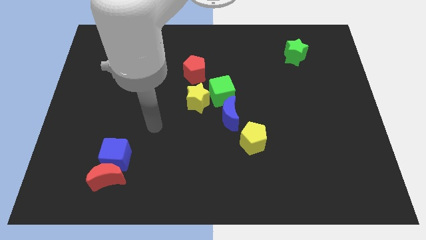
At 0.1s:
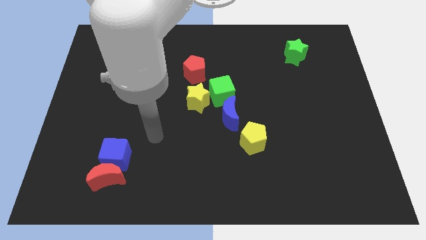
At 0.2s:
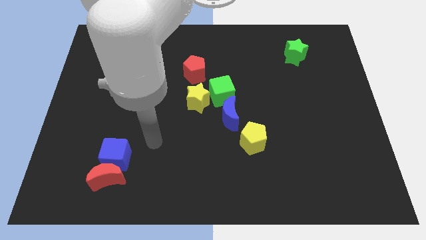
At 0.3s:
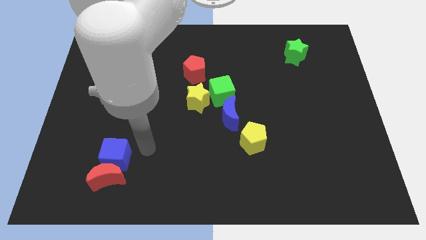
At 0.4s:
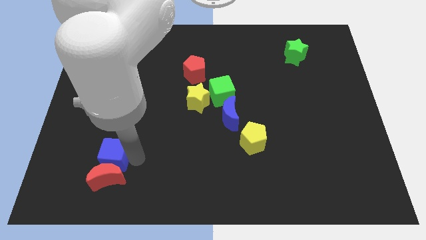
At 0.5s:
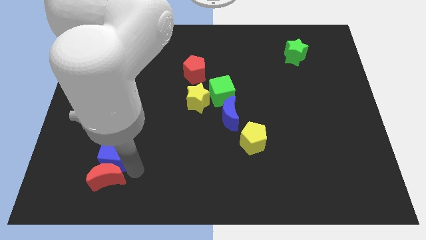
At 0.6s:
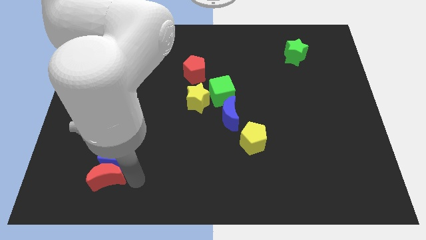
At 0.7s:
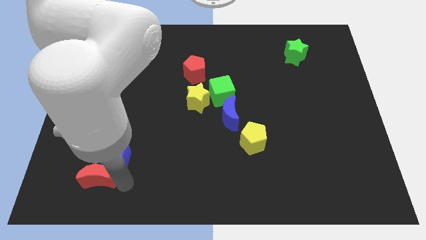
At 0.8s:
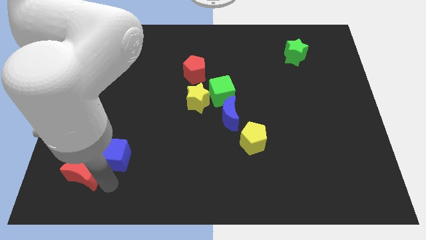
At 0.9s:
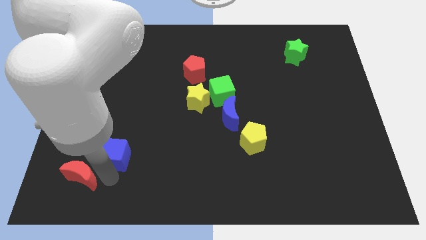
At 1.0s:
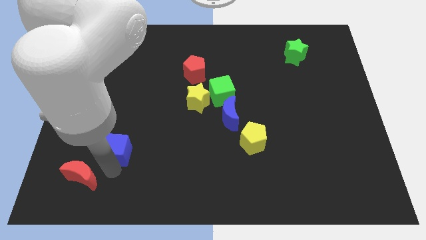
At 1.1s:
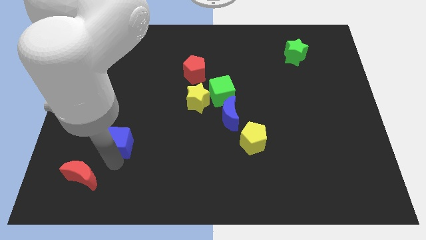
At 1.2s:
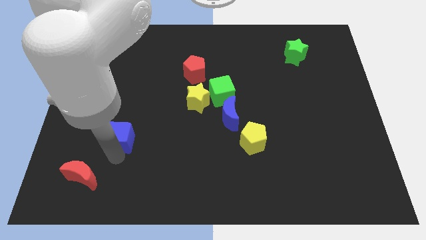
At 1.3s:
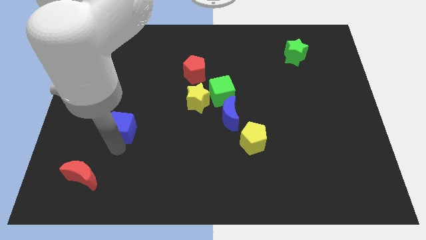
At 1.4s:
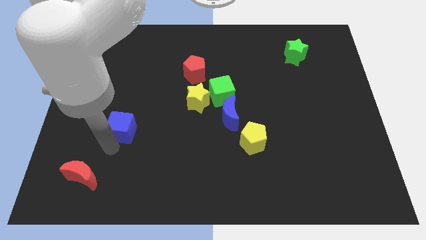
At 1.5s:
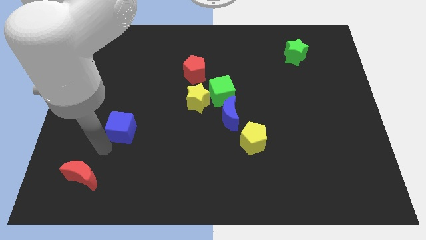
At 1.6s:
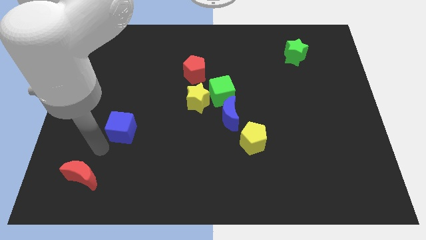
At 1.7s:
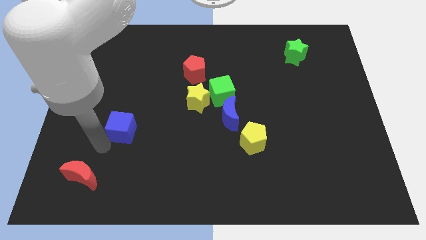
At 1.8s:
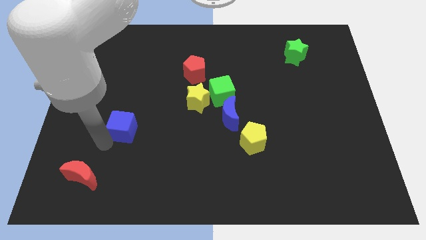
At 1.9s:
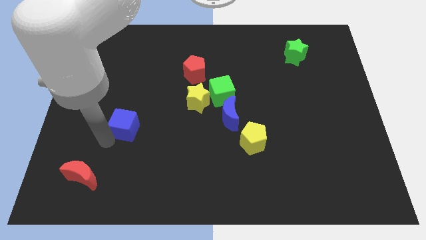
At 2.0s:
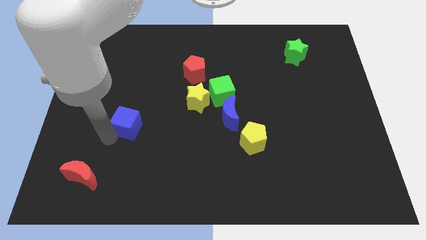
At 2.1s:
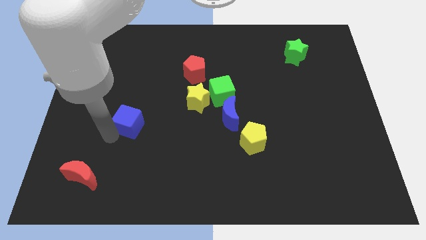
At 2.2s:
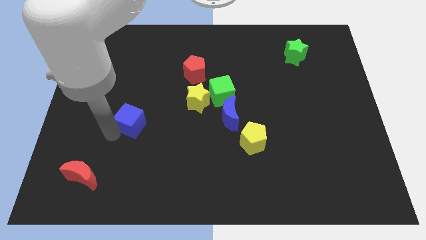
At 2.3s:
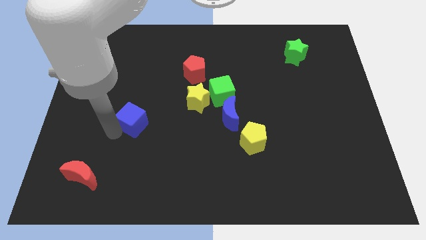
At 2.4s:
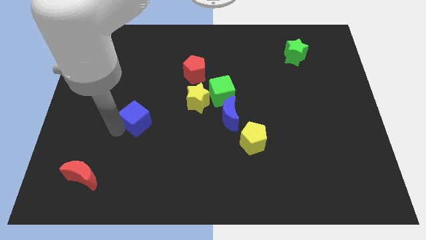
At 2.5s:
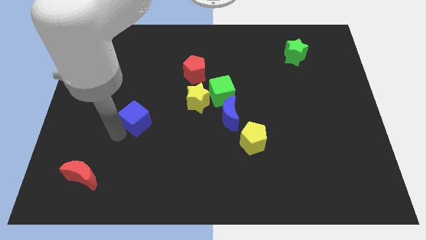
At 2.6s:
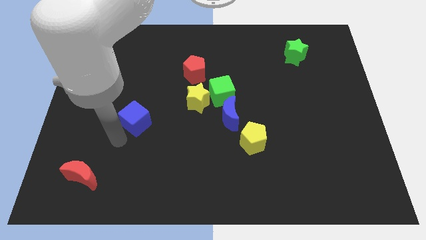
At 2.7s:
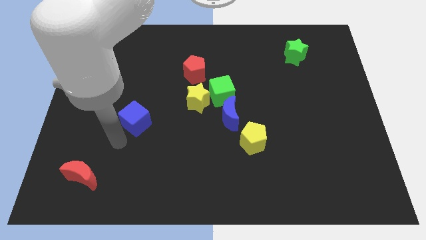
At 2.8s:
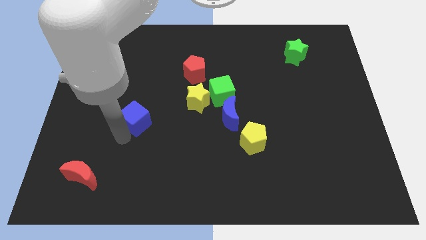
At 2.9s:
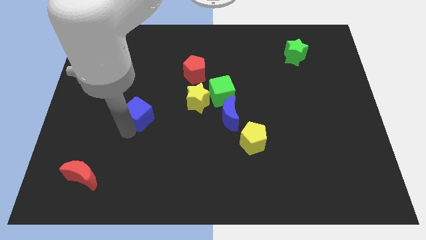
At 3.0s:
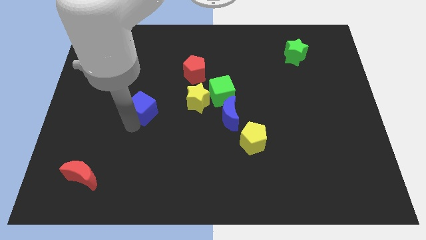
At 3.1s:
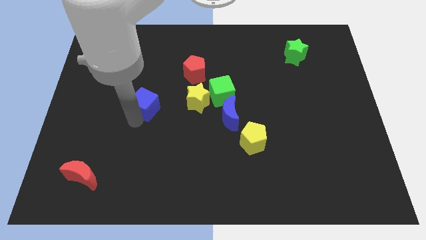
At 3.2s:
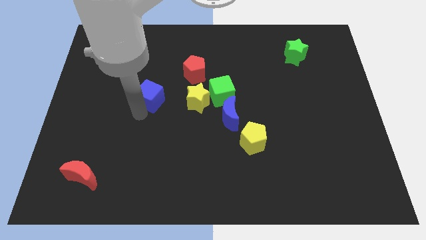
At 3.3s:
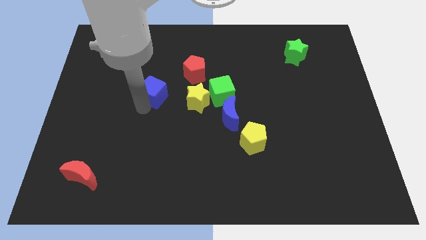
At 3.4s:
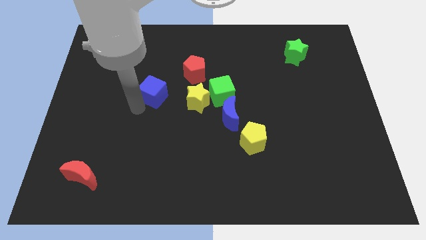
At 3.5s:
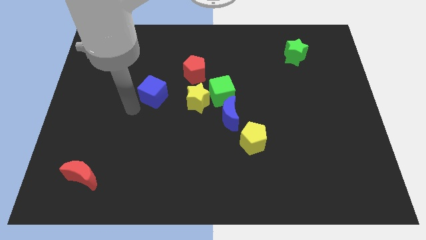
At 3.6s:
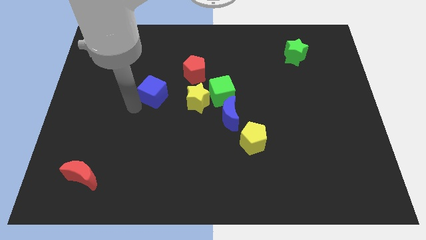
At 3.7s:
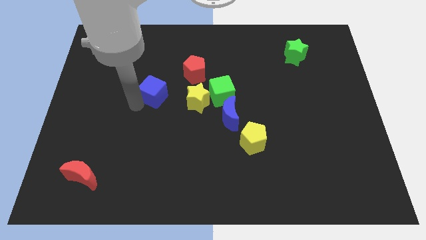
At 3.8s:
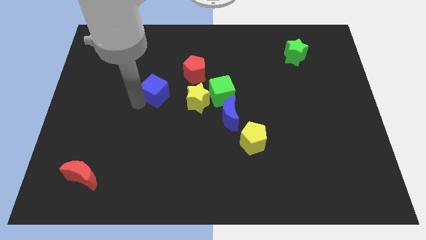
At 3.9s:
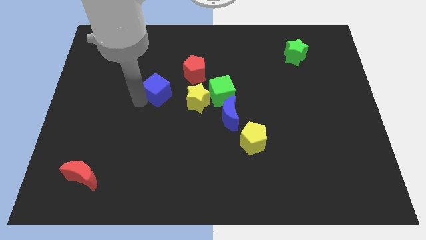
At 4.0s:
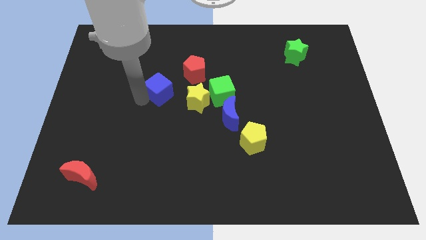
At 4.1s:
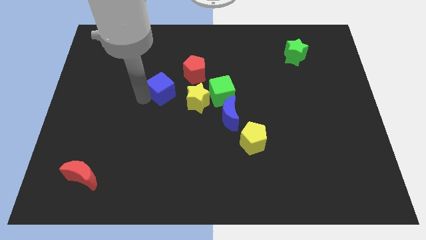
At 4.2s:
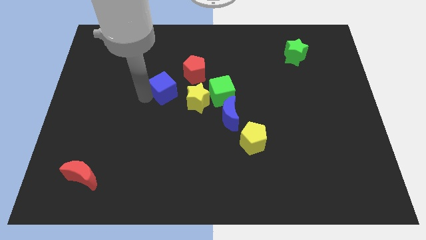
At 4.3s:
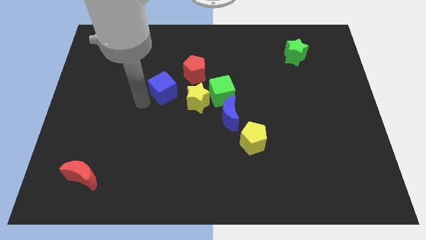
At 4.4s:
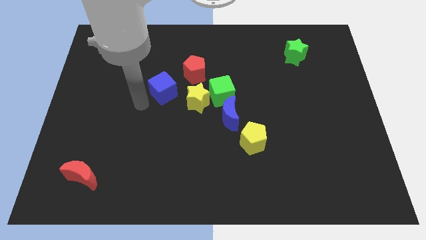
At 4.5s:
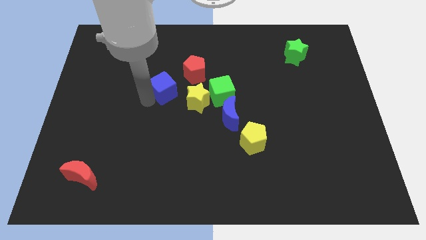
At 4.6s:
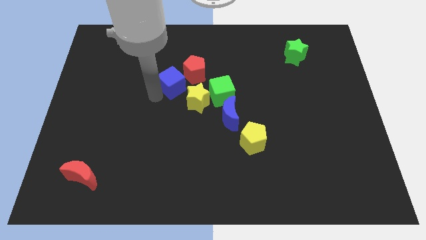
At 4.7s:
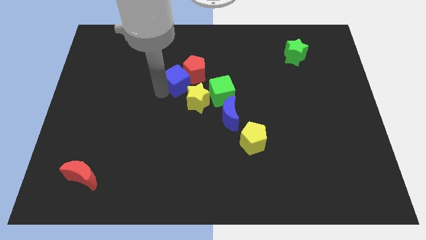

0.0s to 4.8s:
slide the blue cube next to the red pentagon

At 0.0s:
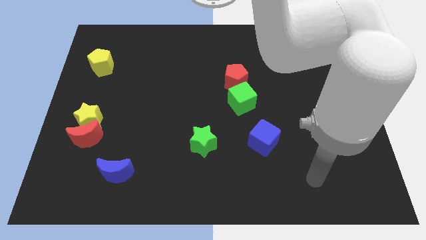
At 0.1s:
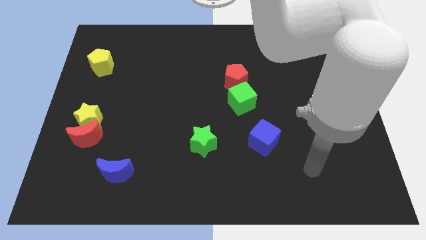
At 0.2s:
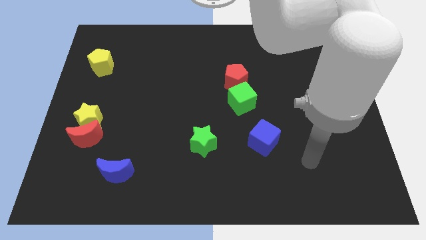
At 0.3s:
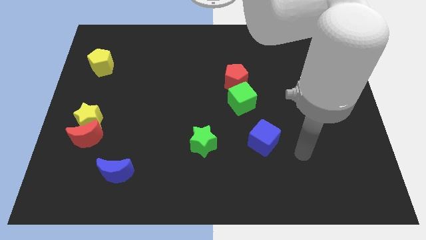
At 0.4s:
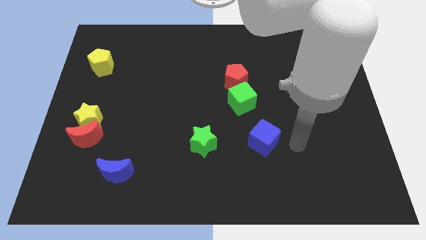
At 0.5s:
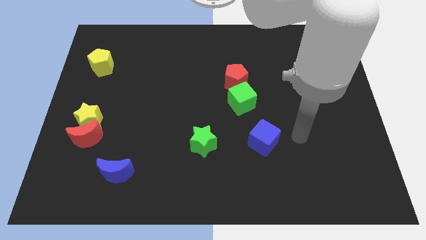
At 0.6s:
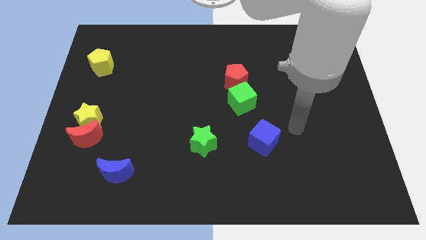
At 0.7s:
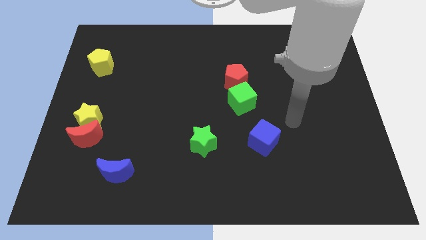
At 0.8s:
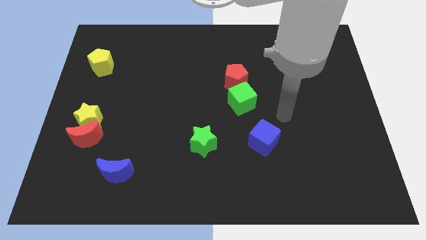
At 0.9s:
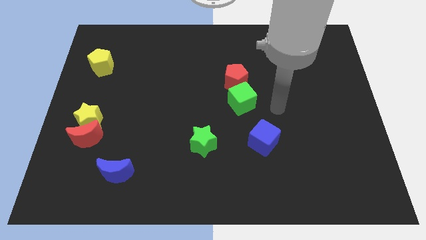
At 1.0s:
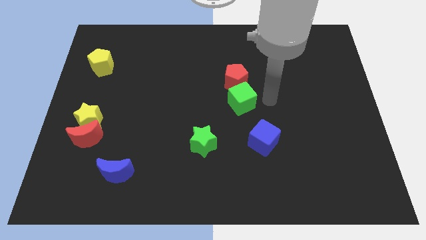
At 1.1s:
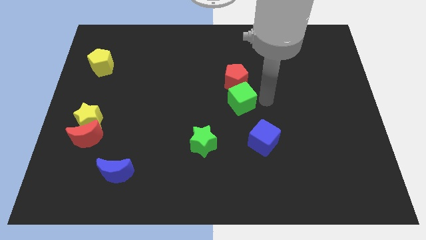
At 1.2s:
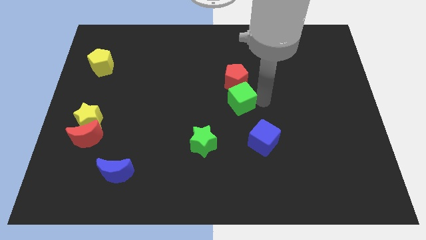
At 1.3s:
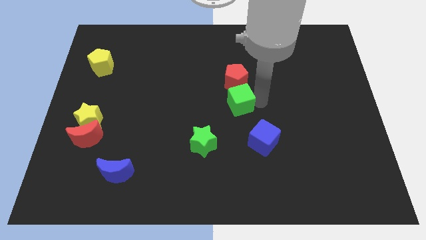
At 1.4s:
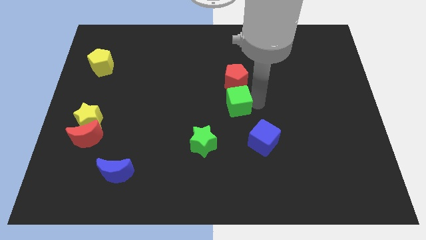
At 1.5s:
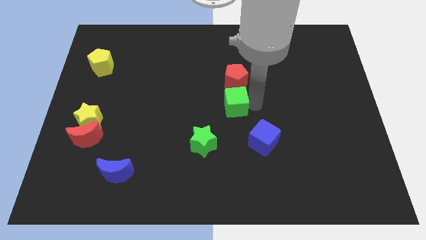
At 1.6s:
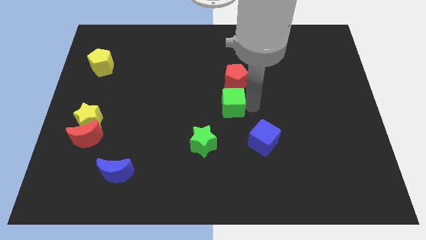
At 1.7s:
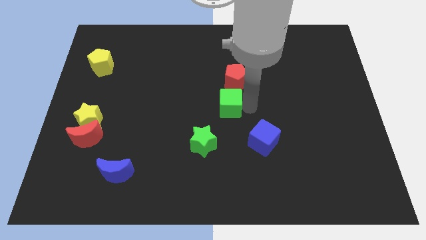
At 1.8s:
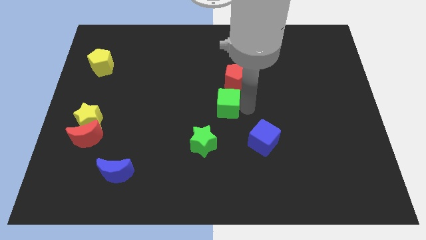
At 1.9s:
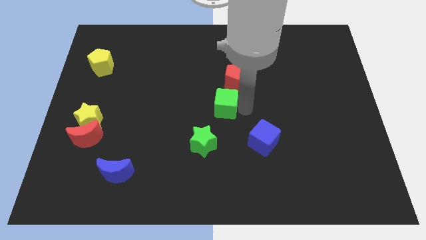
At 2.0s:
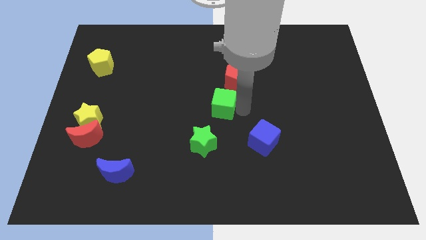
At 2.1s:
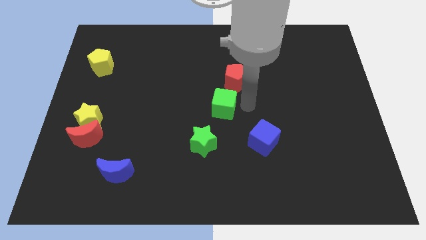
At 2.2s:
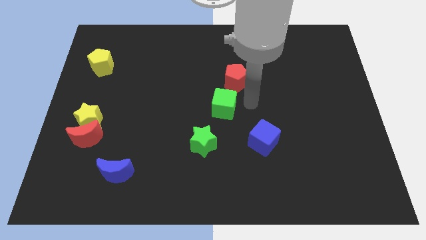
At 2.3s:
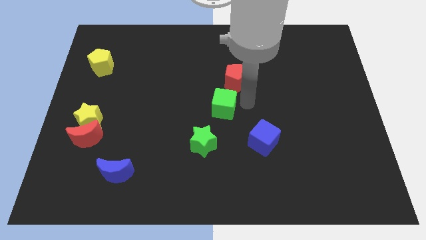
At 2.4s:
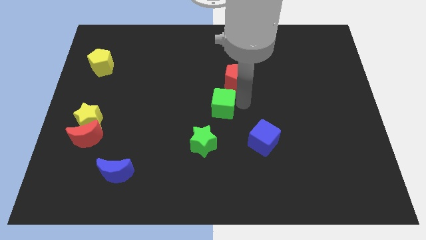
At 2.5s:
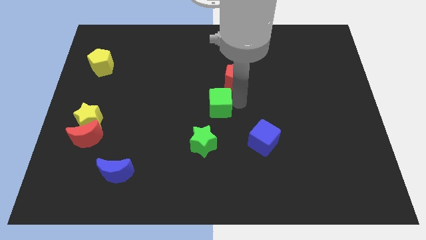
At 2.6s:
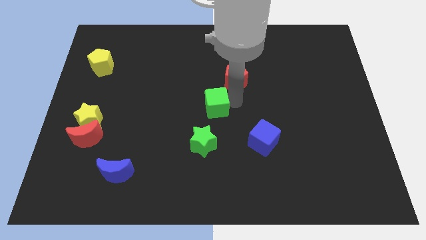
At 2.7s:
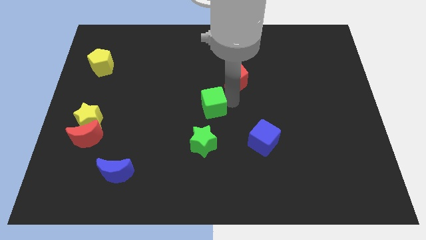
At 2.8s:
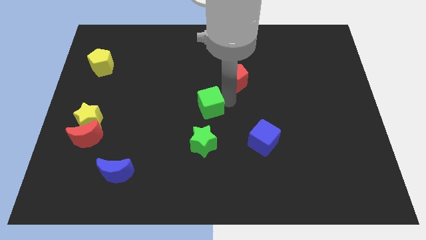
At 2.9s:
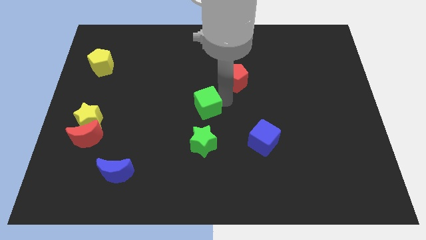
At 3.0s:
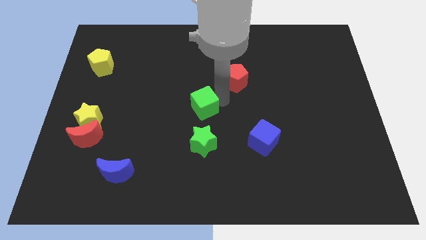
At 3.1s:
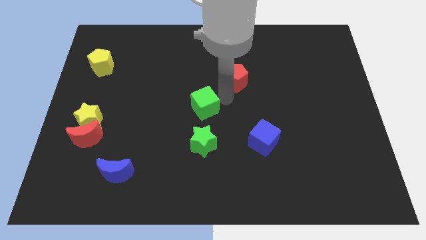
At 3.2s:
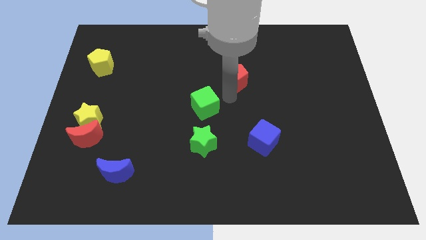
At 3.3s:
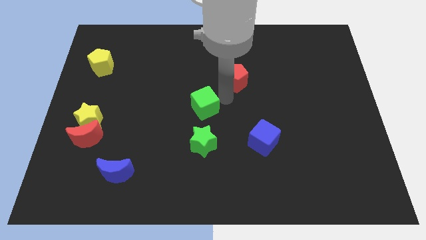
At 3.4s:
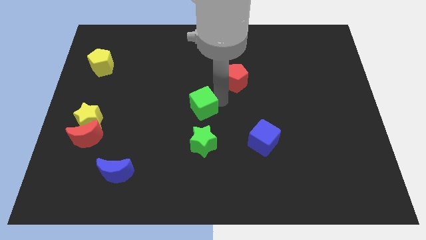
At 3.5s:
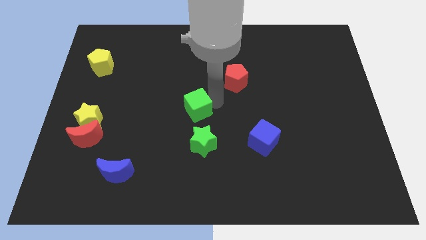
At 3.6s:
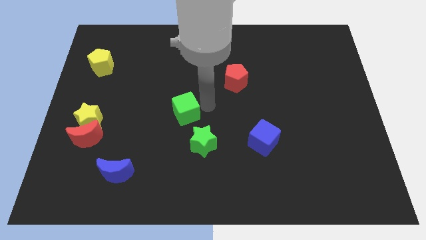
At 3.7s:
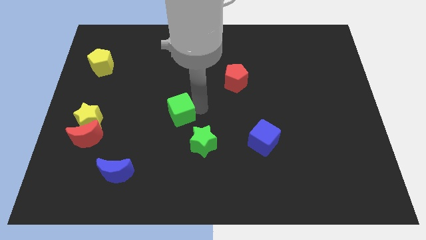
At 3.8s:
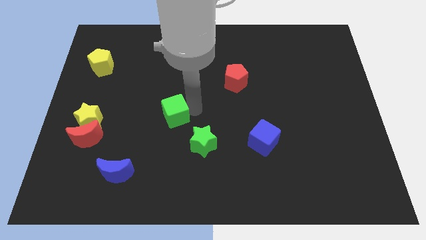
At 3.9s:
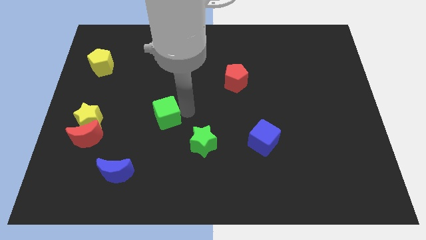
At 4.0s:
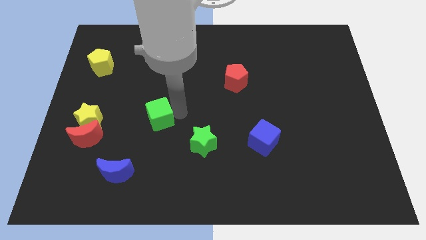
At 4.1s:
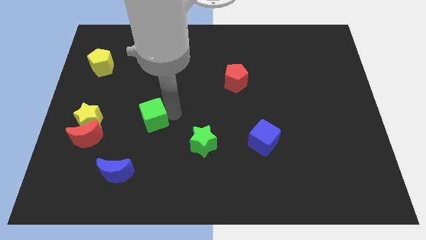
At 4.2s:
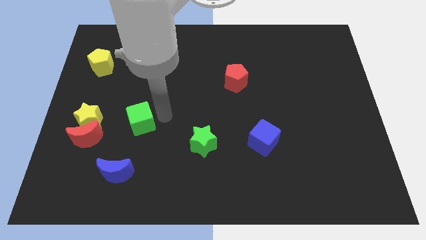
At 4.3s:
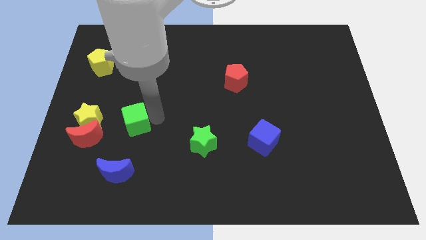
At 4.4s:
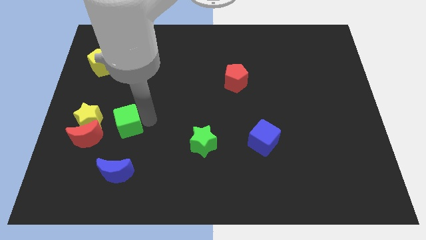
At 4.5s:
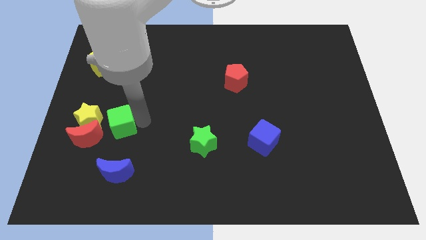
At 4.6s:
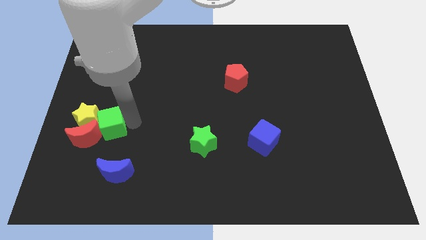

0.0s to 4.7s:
put the green cube to the red moon
